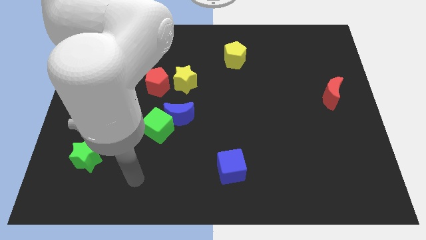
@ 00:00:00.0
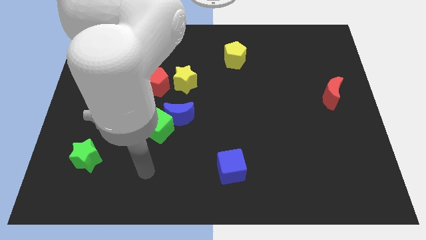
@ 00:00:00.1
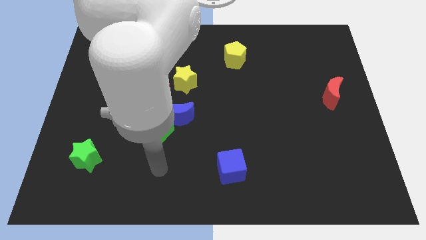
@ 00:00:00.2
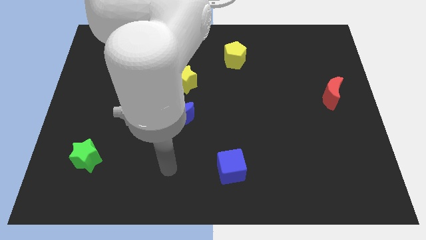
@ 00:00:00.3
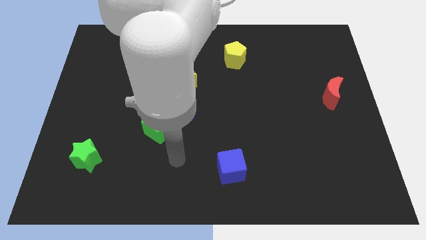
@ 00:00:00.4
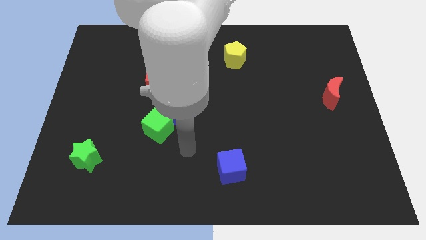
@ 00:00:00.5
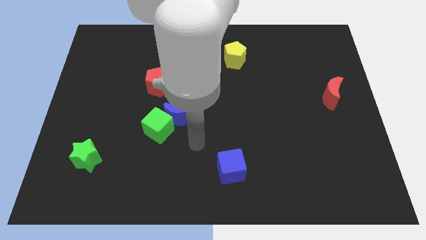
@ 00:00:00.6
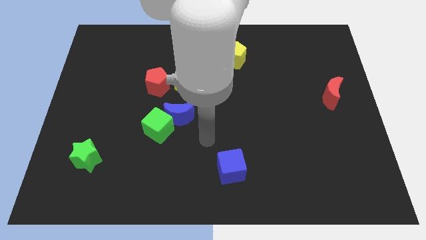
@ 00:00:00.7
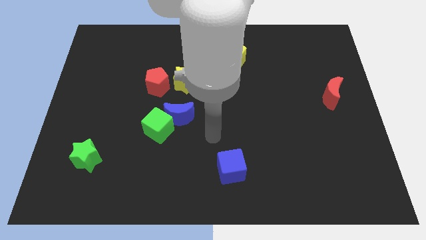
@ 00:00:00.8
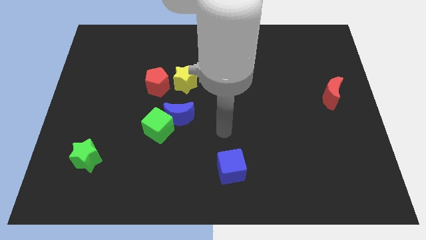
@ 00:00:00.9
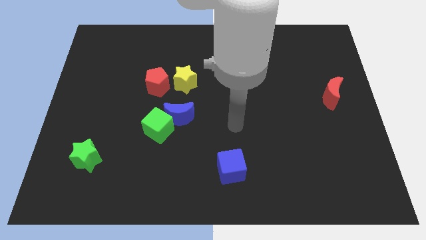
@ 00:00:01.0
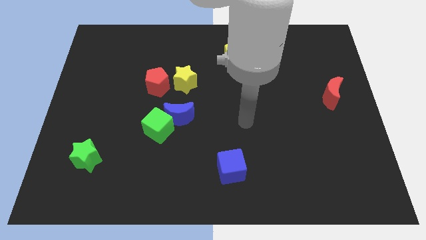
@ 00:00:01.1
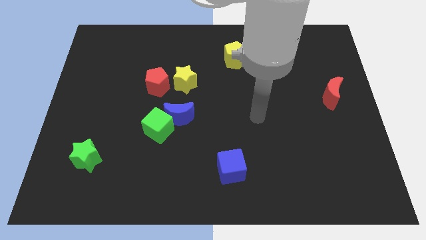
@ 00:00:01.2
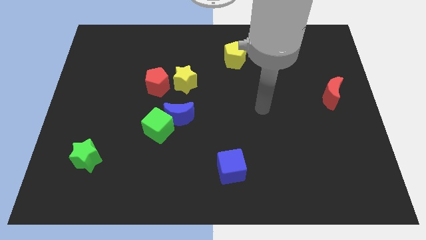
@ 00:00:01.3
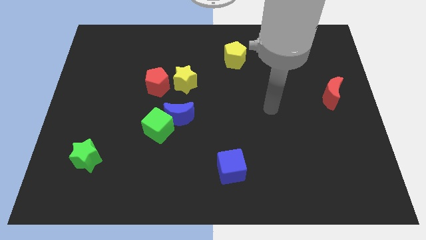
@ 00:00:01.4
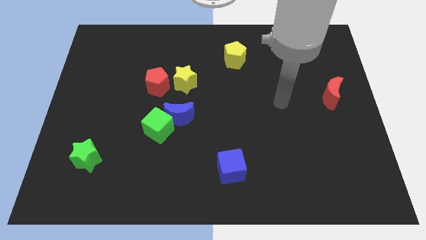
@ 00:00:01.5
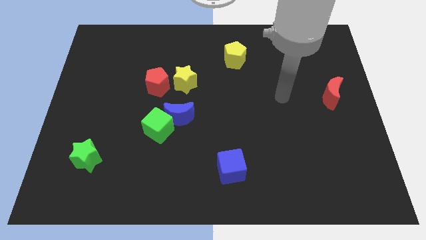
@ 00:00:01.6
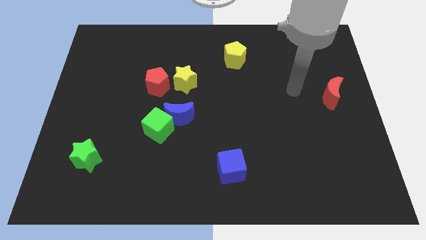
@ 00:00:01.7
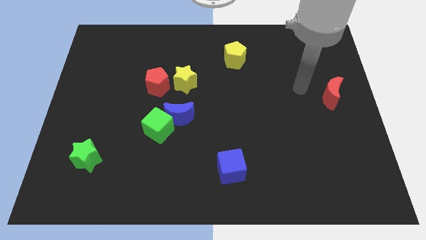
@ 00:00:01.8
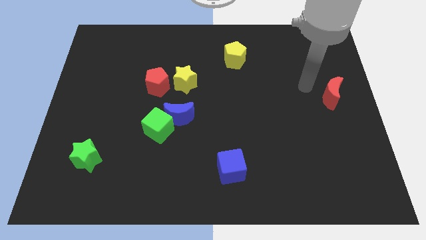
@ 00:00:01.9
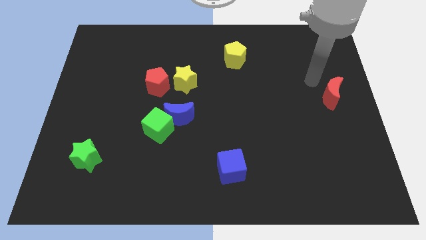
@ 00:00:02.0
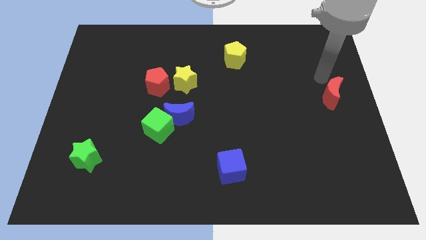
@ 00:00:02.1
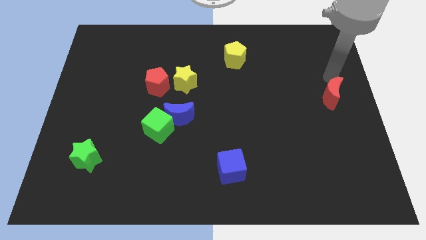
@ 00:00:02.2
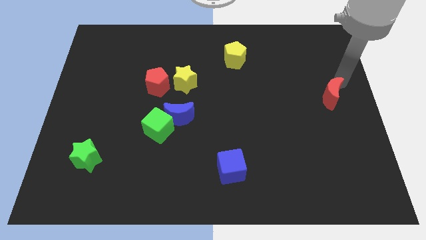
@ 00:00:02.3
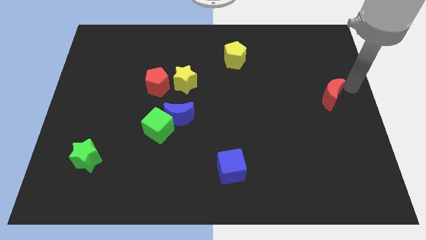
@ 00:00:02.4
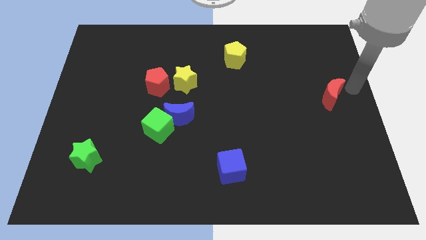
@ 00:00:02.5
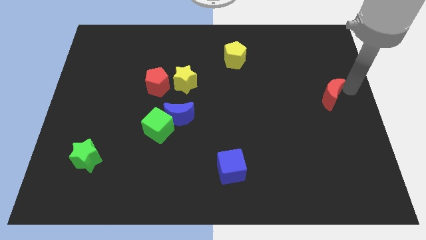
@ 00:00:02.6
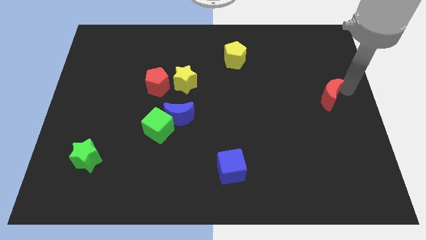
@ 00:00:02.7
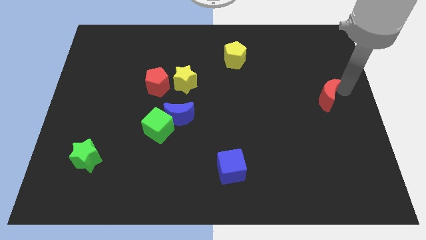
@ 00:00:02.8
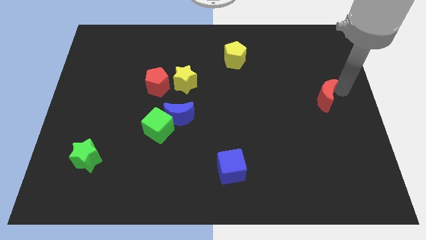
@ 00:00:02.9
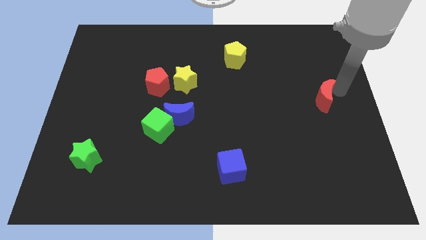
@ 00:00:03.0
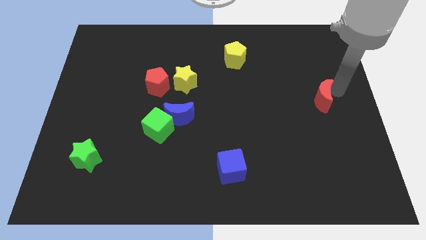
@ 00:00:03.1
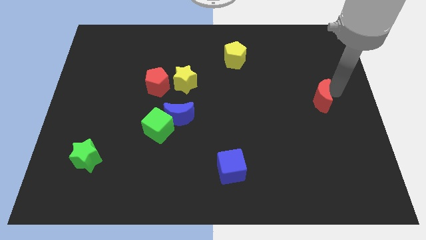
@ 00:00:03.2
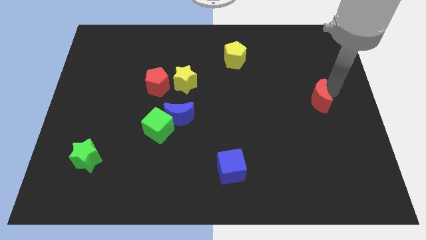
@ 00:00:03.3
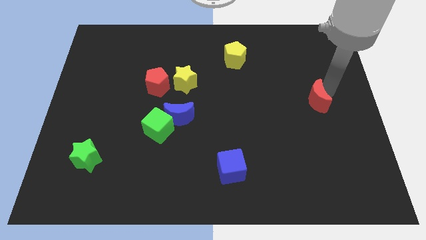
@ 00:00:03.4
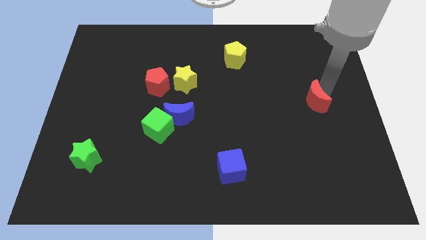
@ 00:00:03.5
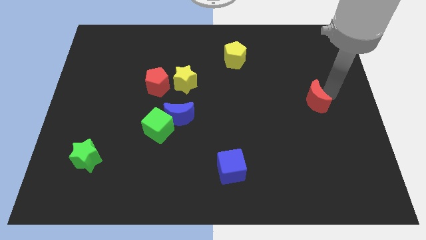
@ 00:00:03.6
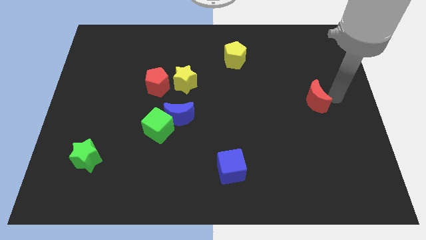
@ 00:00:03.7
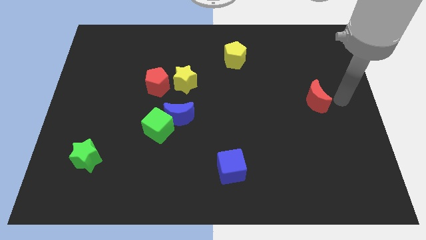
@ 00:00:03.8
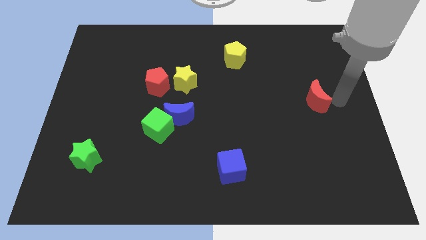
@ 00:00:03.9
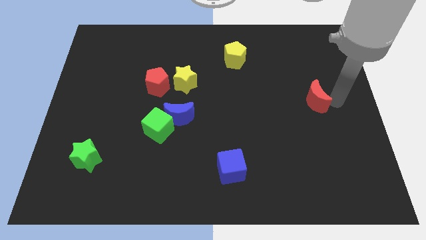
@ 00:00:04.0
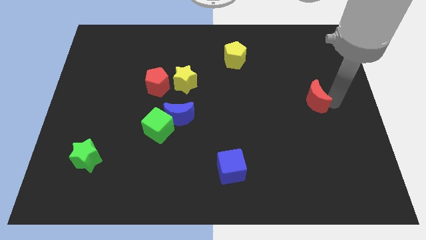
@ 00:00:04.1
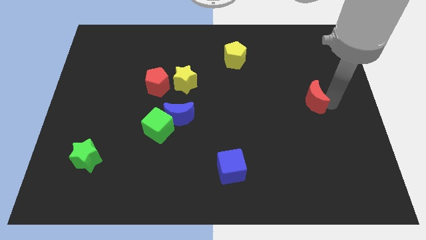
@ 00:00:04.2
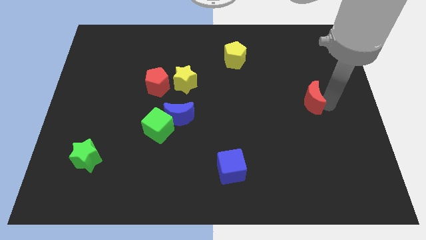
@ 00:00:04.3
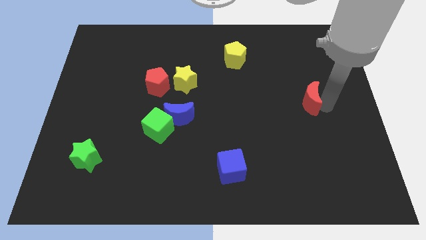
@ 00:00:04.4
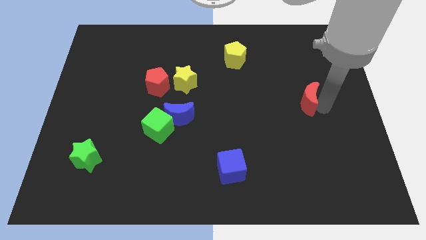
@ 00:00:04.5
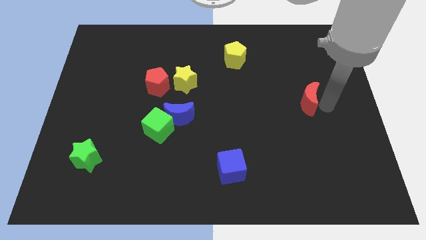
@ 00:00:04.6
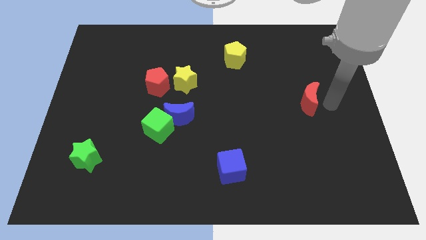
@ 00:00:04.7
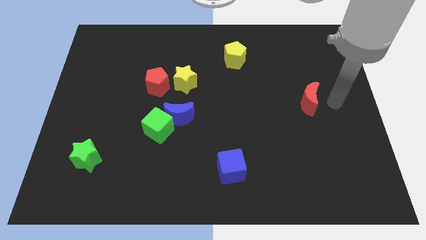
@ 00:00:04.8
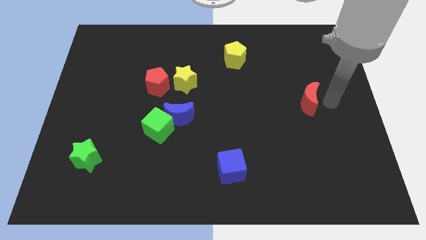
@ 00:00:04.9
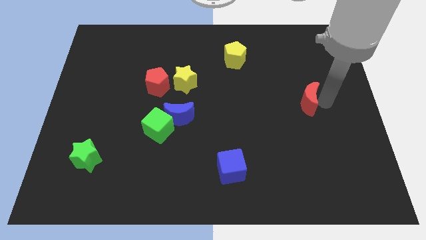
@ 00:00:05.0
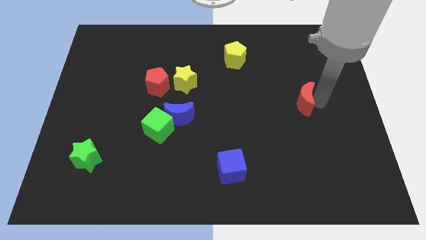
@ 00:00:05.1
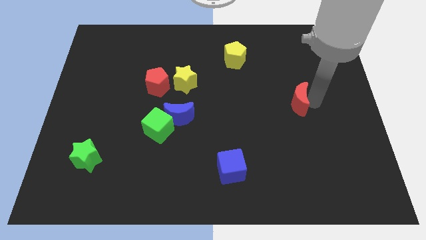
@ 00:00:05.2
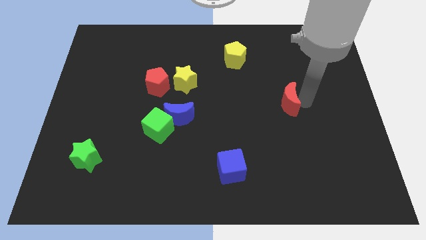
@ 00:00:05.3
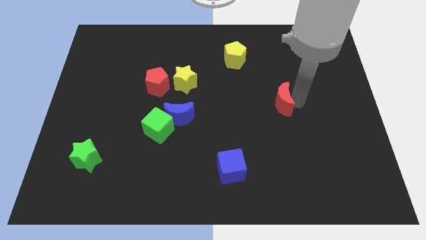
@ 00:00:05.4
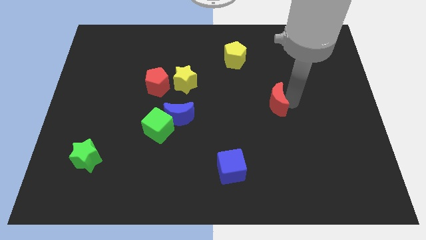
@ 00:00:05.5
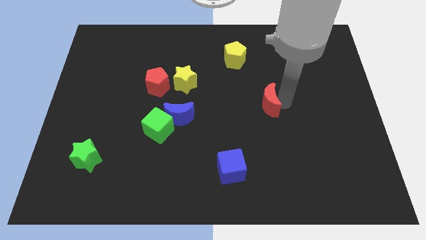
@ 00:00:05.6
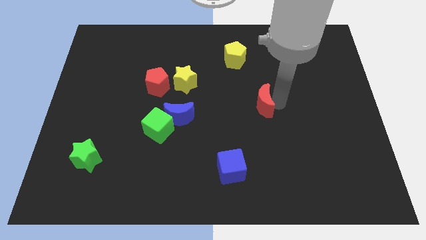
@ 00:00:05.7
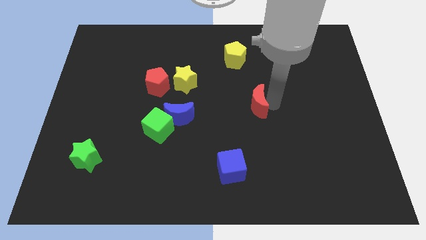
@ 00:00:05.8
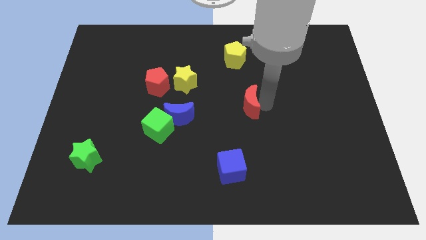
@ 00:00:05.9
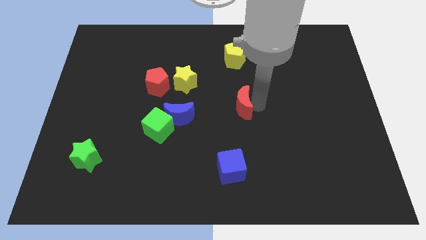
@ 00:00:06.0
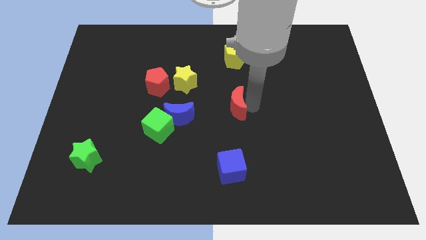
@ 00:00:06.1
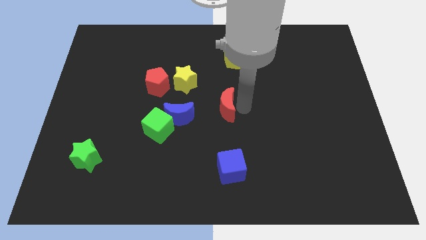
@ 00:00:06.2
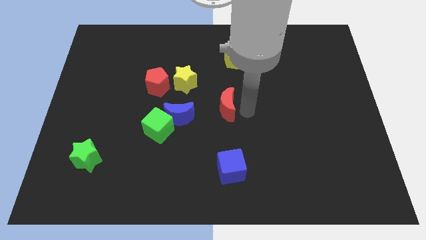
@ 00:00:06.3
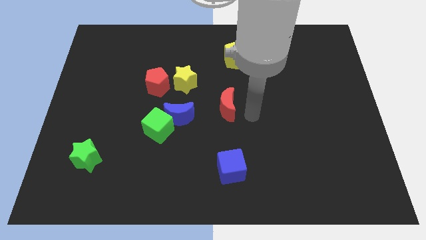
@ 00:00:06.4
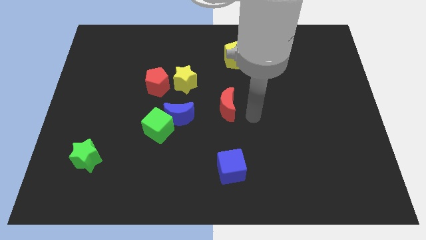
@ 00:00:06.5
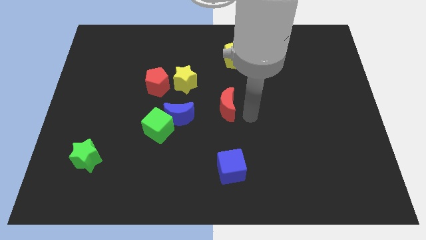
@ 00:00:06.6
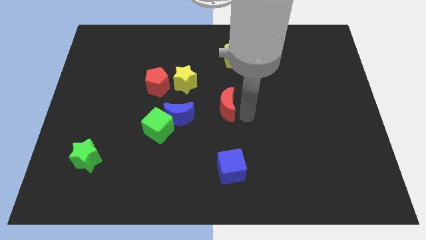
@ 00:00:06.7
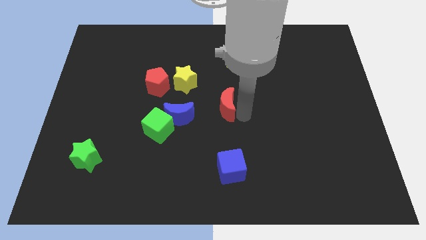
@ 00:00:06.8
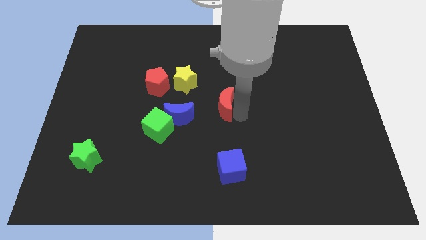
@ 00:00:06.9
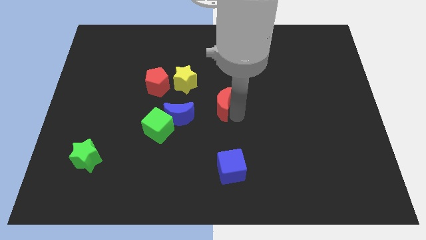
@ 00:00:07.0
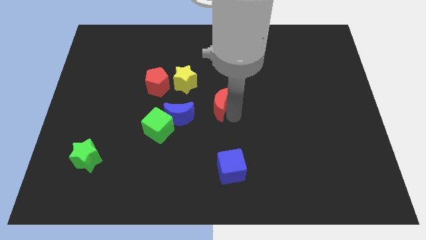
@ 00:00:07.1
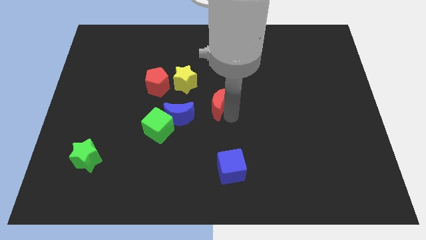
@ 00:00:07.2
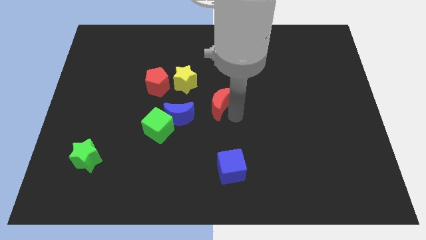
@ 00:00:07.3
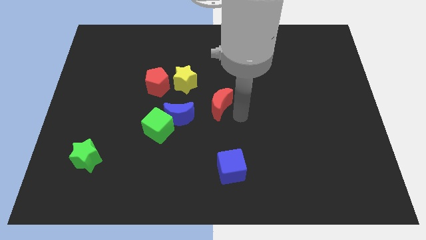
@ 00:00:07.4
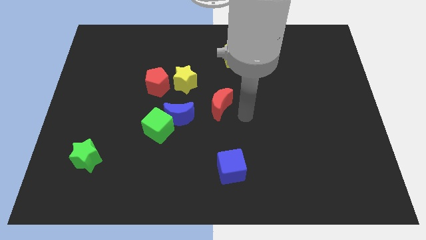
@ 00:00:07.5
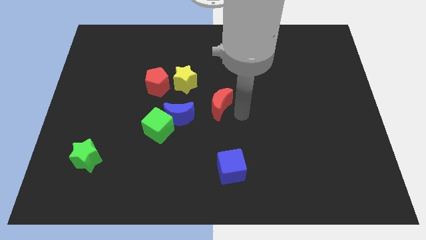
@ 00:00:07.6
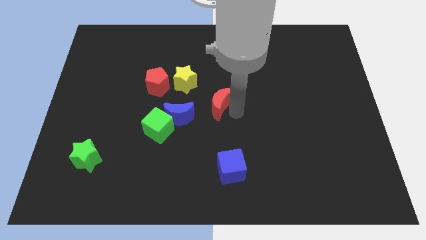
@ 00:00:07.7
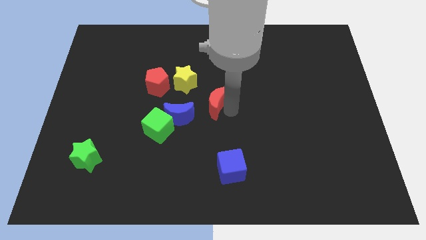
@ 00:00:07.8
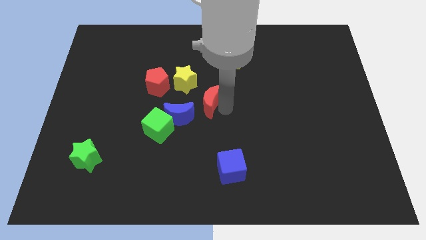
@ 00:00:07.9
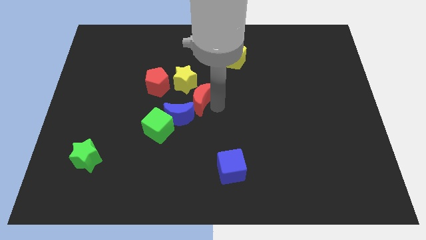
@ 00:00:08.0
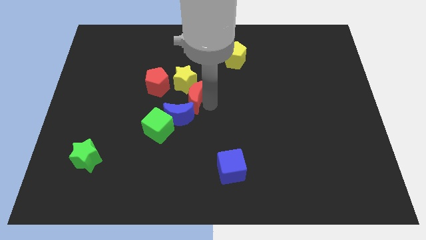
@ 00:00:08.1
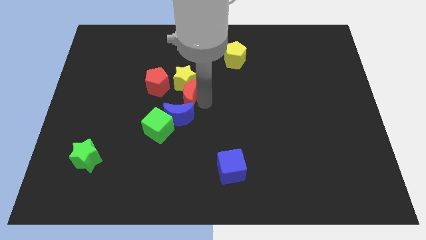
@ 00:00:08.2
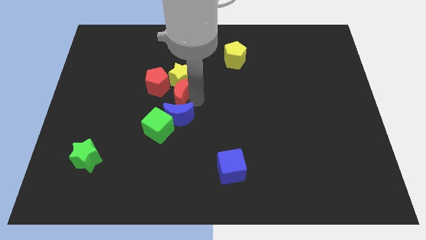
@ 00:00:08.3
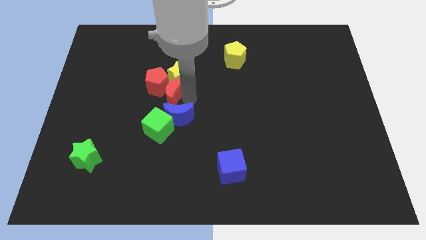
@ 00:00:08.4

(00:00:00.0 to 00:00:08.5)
push the red moon towards the red pentagon
